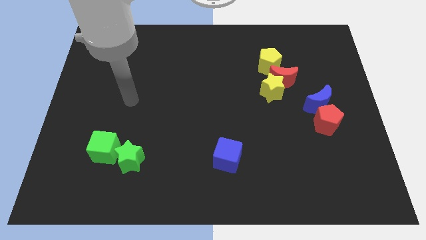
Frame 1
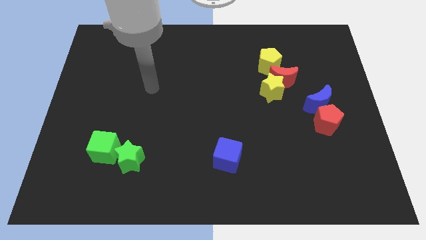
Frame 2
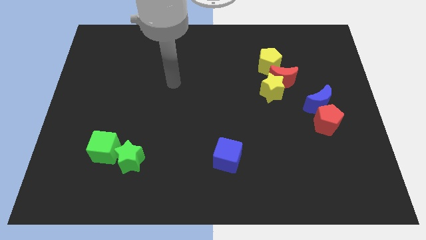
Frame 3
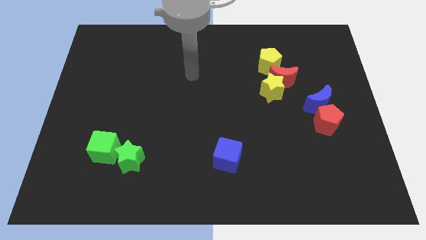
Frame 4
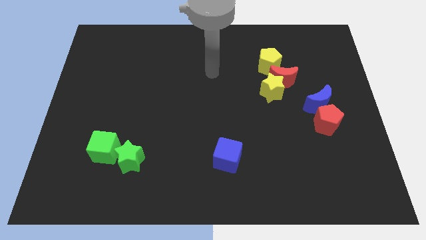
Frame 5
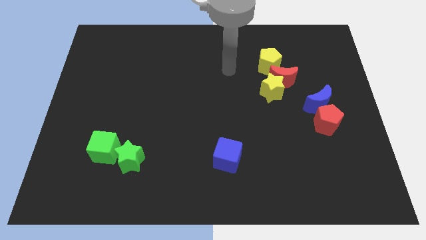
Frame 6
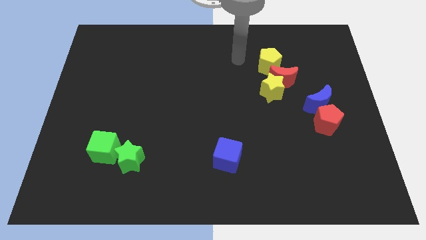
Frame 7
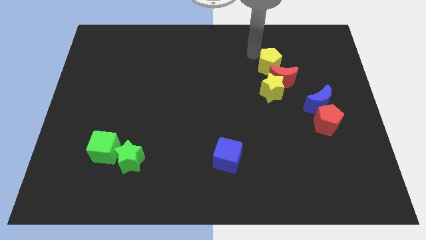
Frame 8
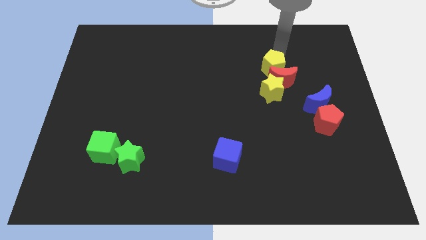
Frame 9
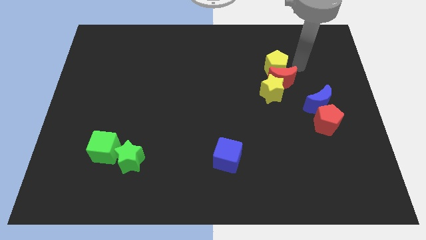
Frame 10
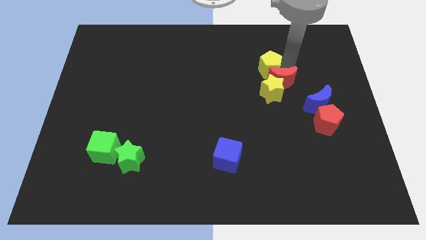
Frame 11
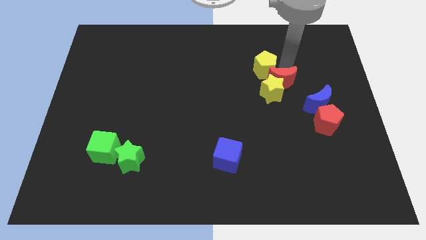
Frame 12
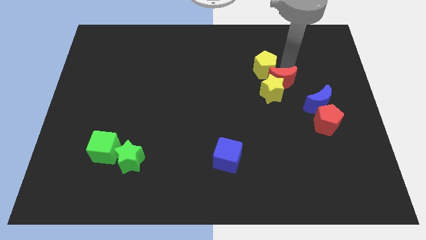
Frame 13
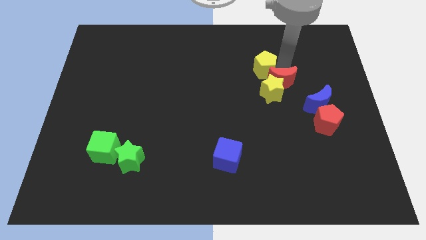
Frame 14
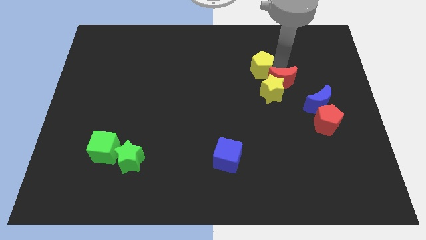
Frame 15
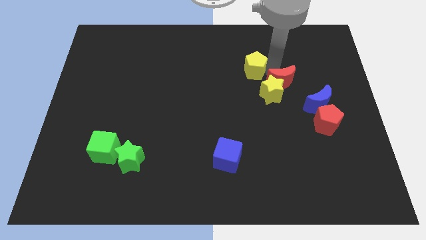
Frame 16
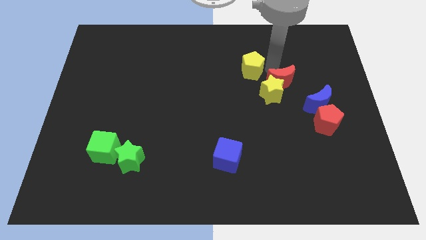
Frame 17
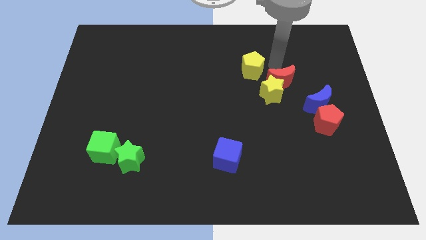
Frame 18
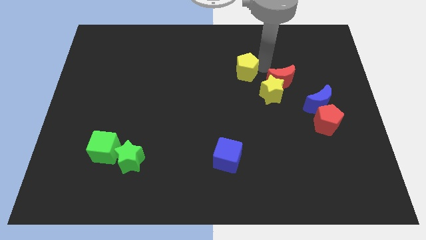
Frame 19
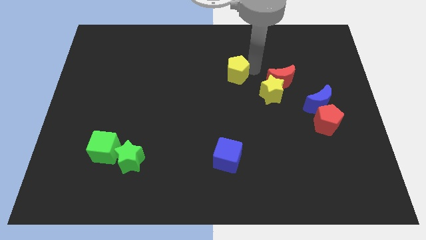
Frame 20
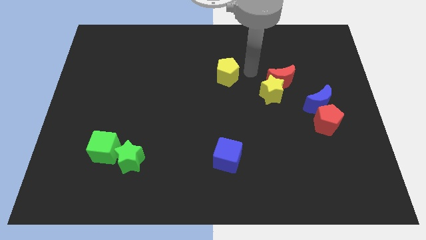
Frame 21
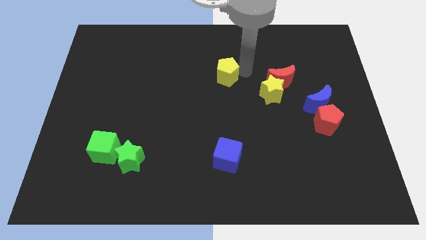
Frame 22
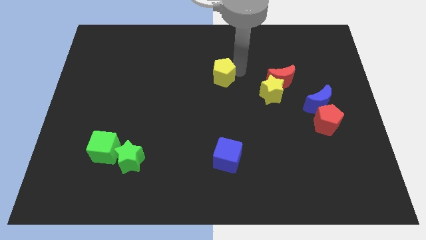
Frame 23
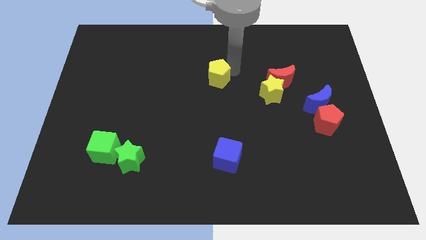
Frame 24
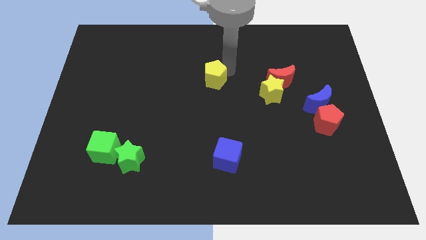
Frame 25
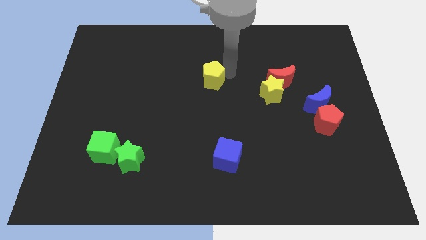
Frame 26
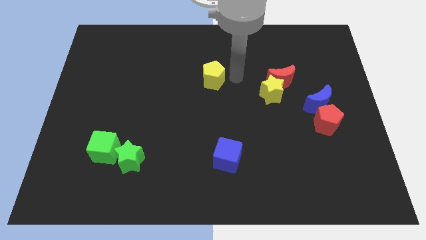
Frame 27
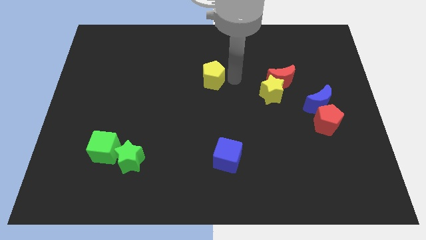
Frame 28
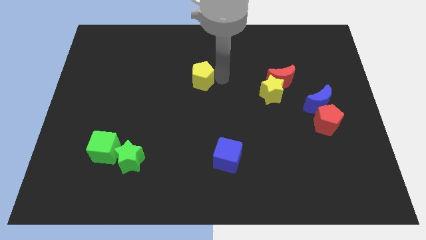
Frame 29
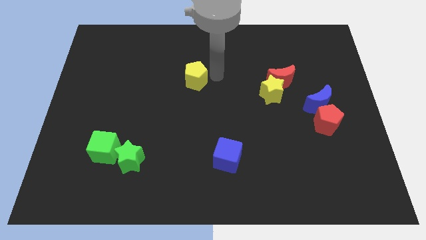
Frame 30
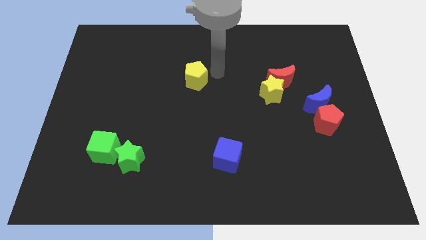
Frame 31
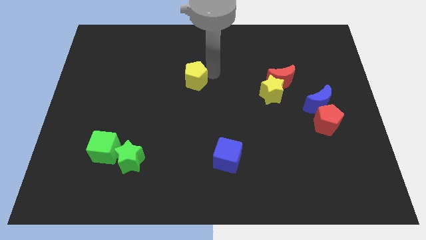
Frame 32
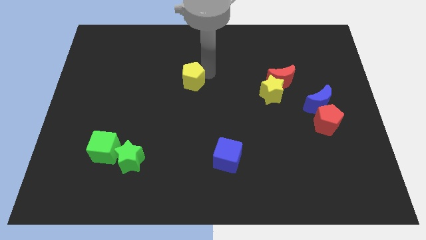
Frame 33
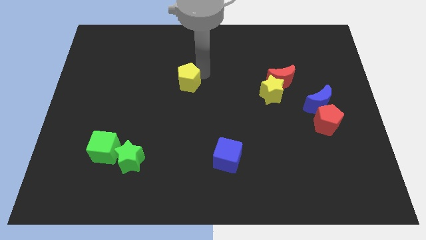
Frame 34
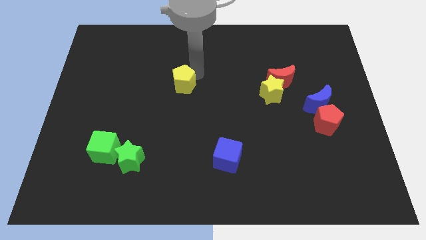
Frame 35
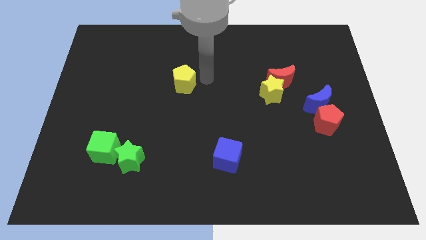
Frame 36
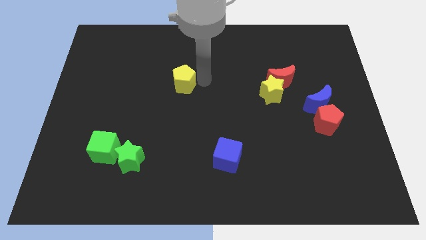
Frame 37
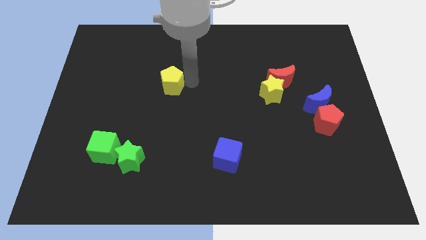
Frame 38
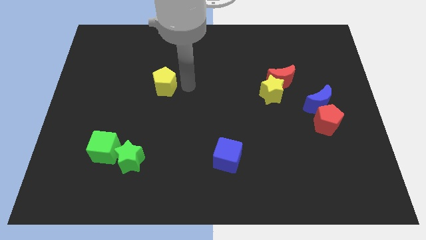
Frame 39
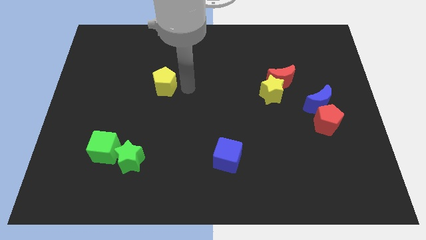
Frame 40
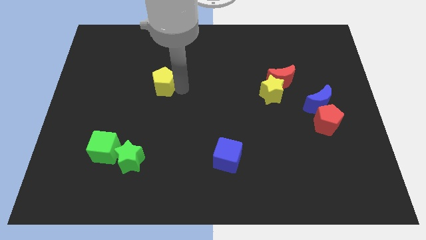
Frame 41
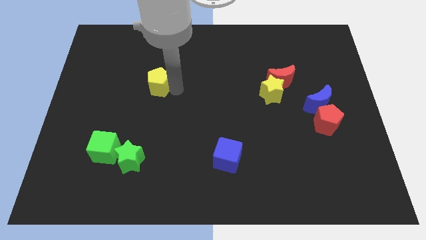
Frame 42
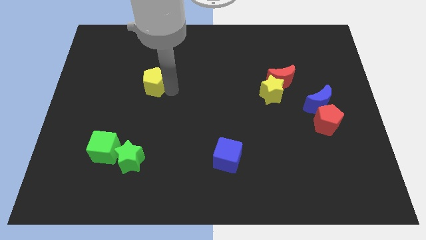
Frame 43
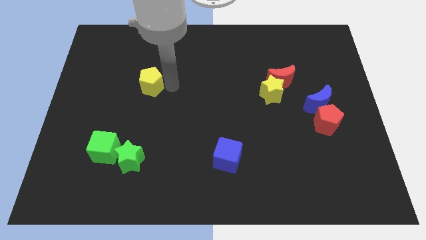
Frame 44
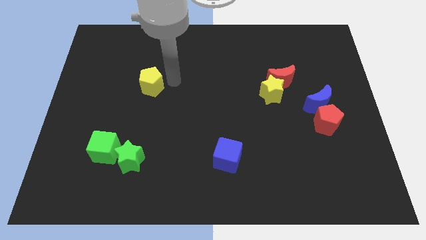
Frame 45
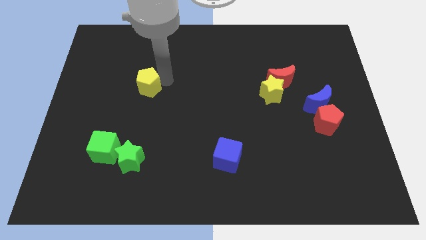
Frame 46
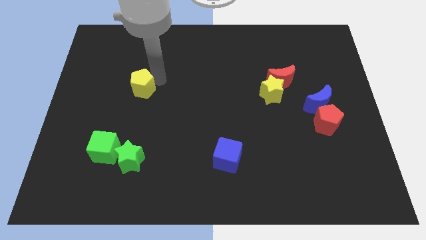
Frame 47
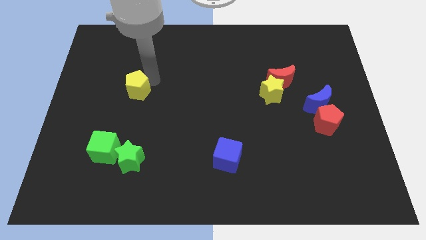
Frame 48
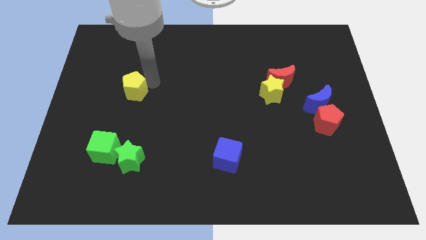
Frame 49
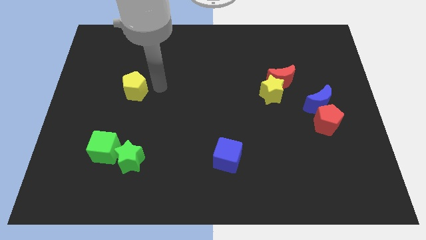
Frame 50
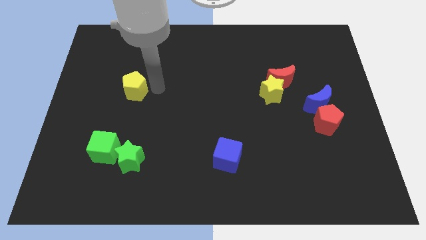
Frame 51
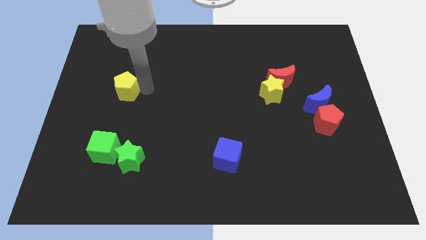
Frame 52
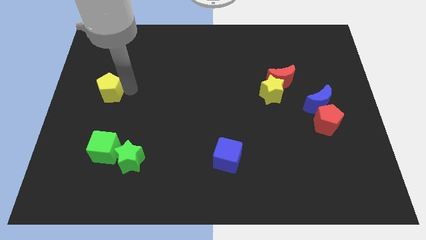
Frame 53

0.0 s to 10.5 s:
put the yellow pentagon to the center left

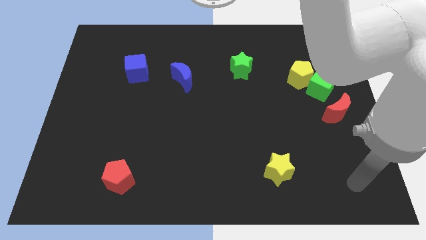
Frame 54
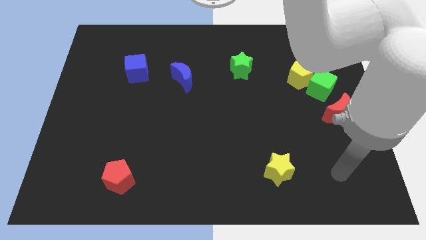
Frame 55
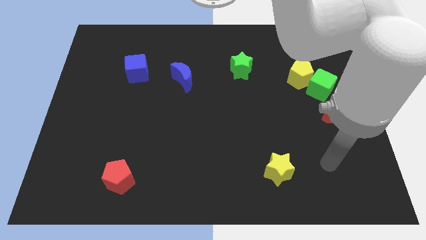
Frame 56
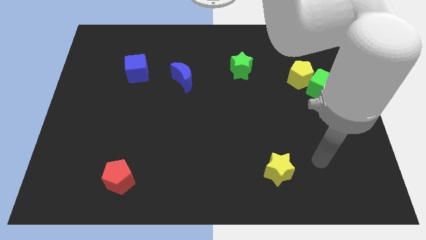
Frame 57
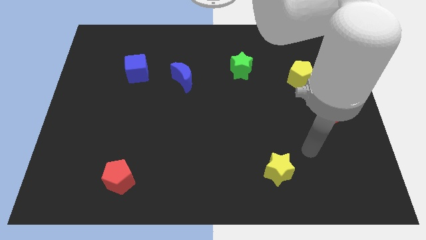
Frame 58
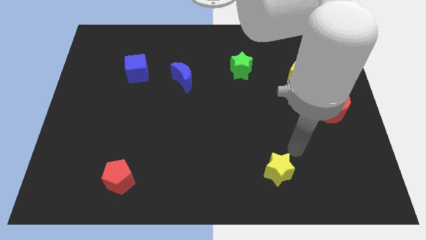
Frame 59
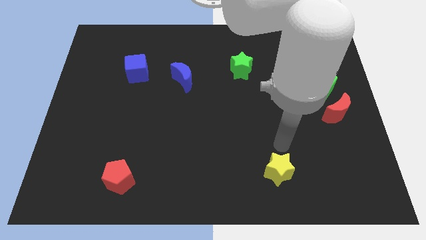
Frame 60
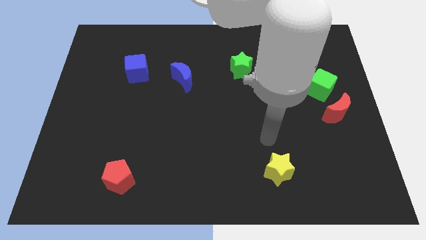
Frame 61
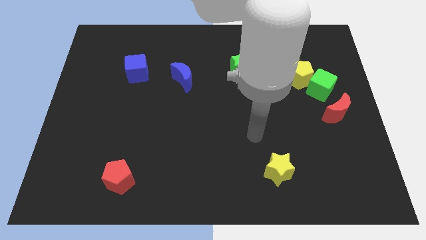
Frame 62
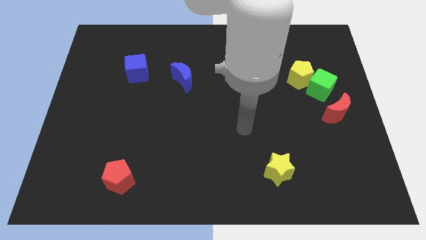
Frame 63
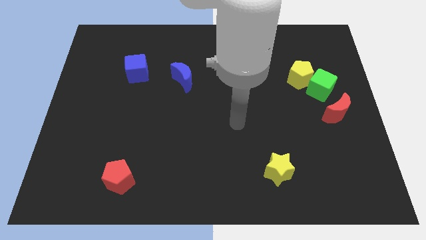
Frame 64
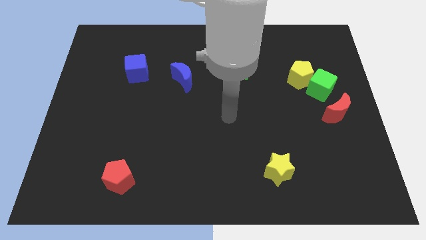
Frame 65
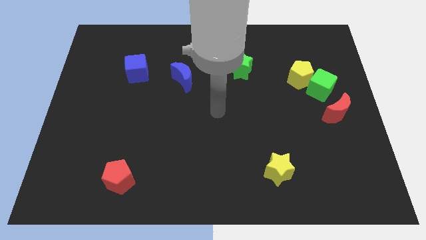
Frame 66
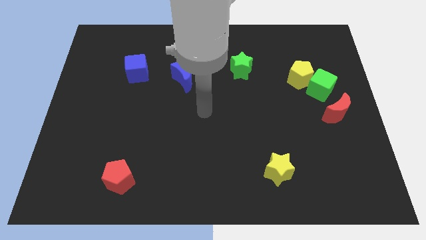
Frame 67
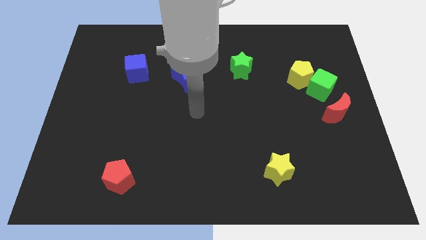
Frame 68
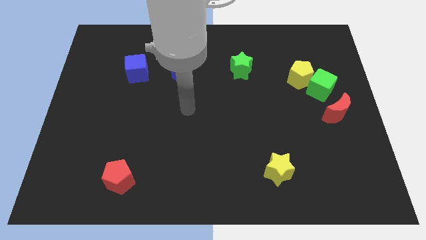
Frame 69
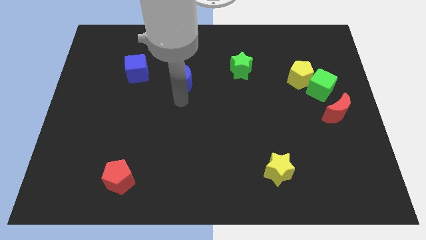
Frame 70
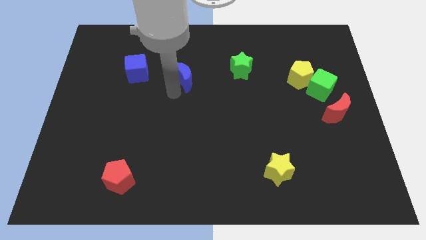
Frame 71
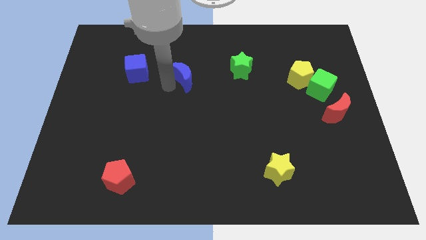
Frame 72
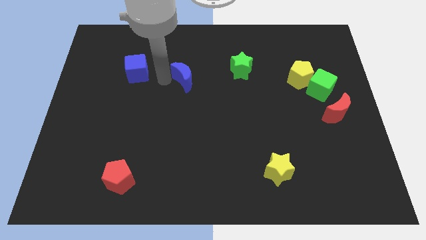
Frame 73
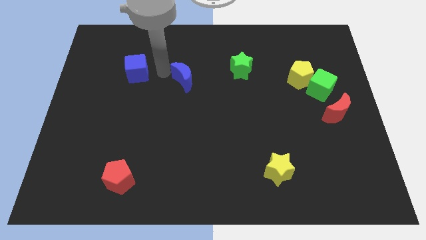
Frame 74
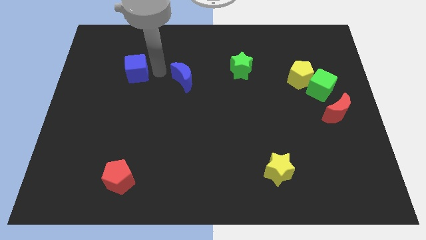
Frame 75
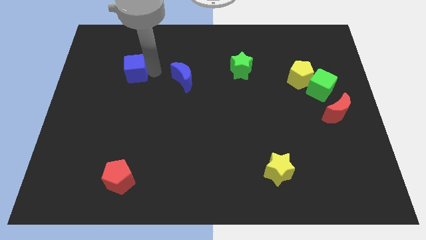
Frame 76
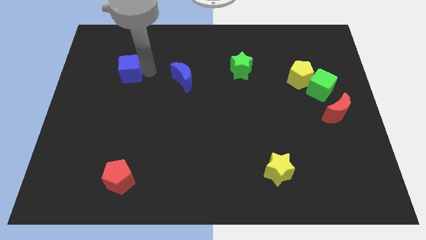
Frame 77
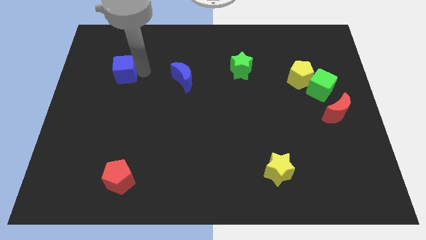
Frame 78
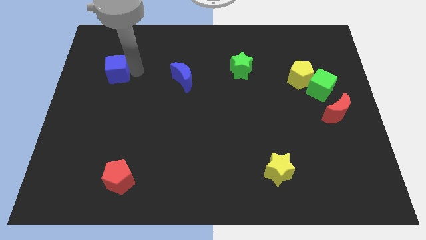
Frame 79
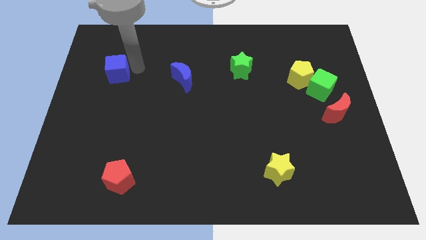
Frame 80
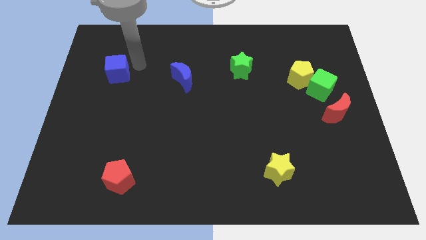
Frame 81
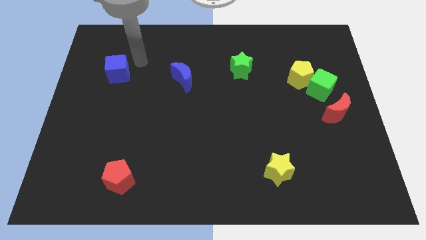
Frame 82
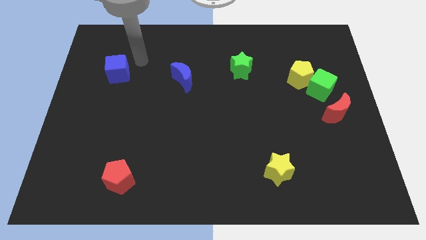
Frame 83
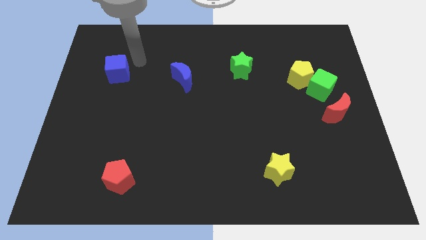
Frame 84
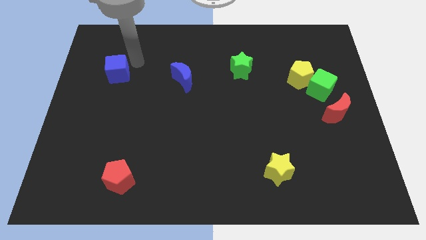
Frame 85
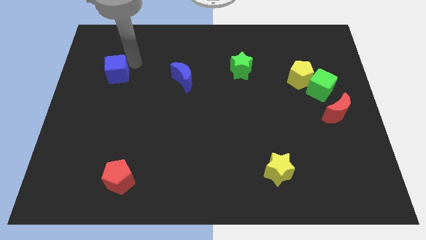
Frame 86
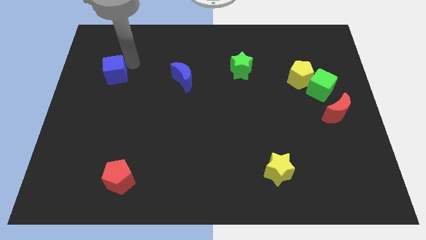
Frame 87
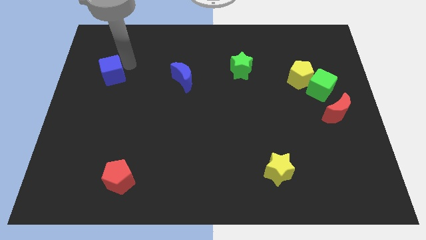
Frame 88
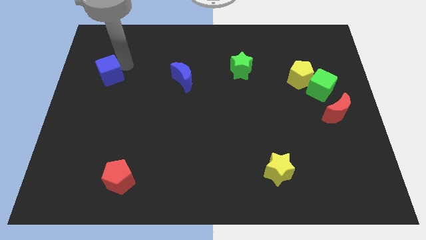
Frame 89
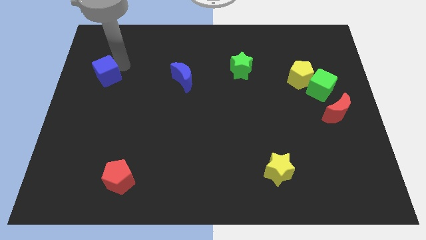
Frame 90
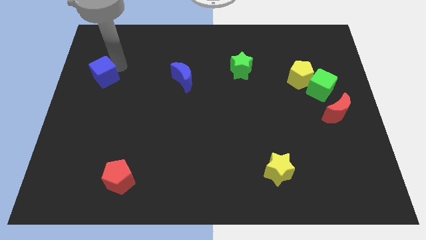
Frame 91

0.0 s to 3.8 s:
slide the blue cube to the left side
